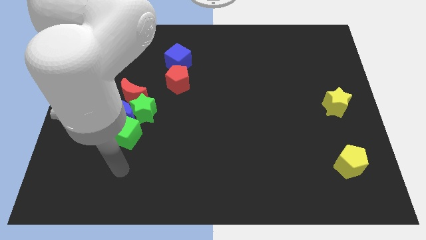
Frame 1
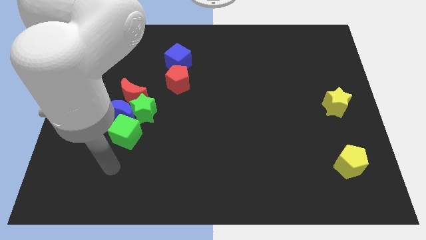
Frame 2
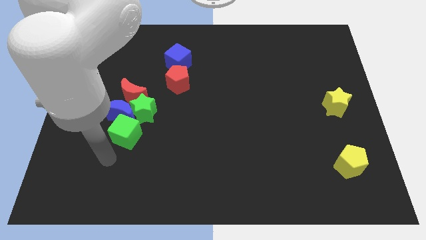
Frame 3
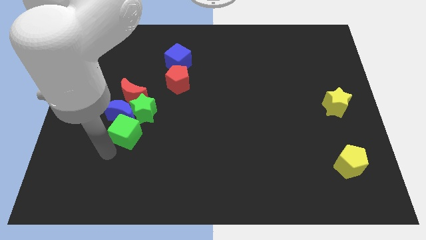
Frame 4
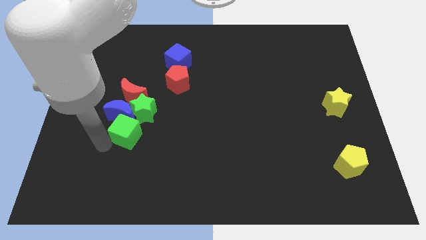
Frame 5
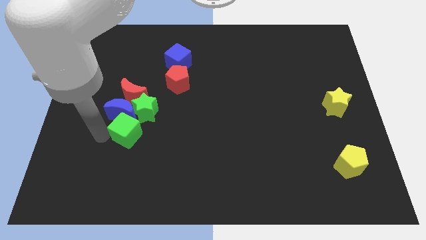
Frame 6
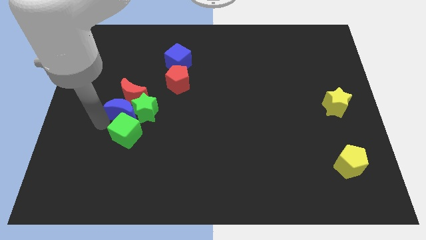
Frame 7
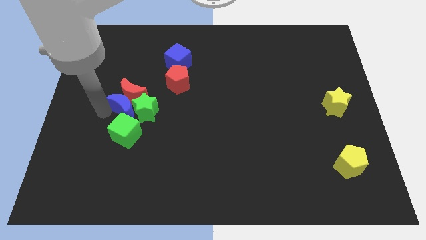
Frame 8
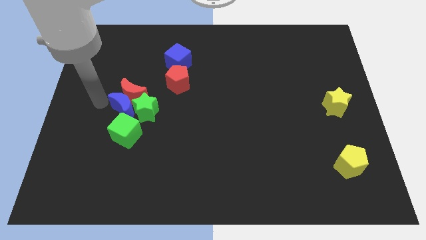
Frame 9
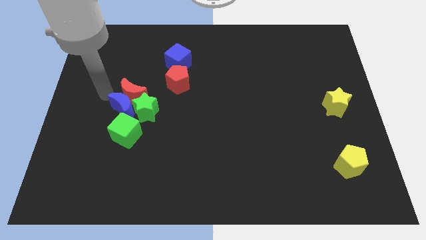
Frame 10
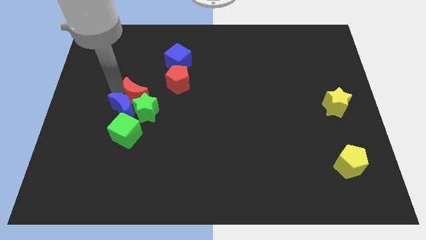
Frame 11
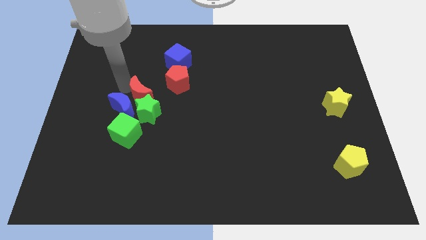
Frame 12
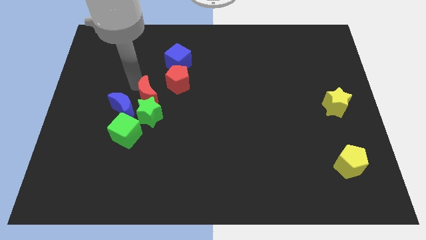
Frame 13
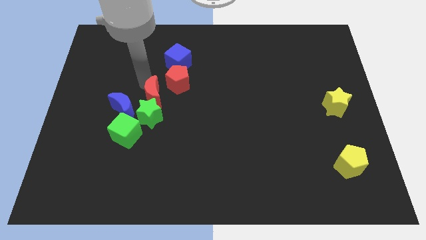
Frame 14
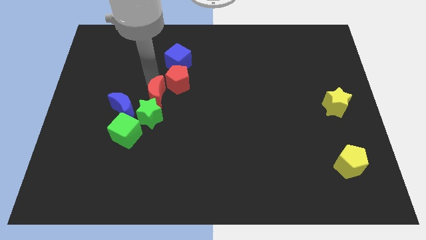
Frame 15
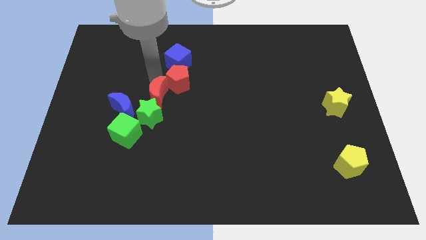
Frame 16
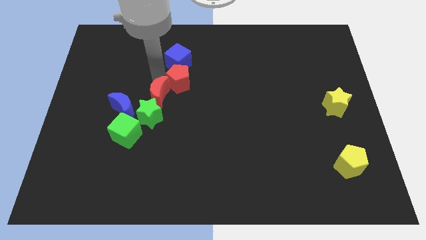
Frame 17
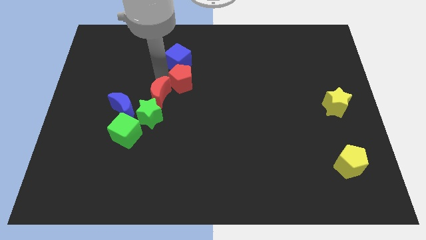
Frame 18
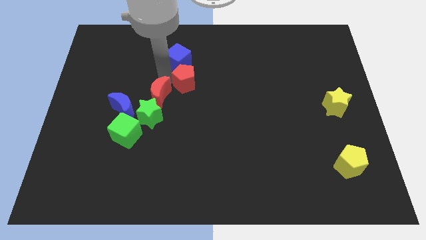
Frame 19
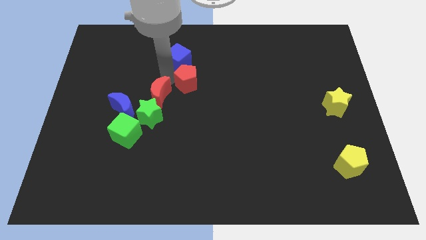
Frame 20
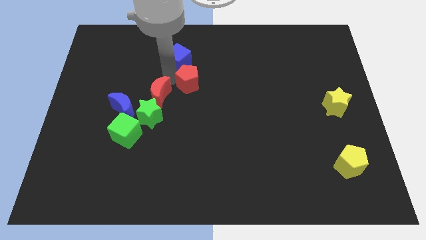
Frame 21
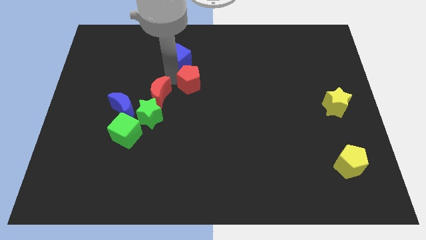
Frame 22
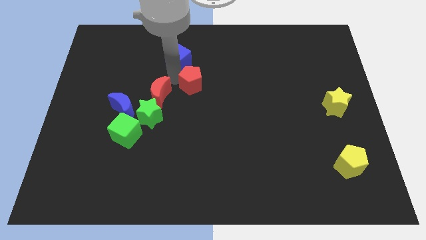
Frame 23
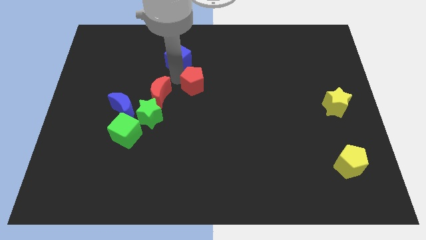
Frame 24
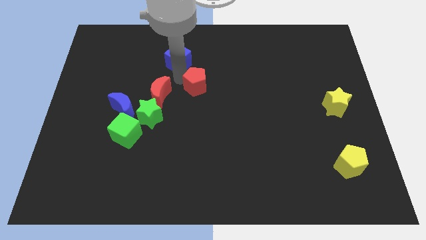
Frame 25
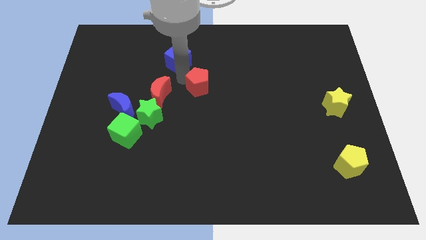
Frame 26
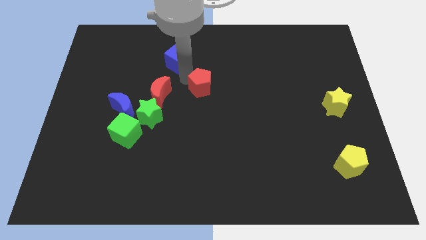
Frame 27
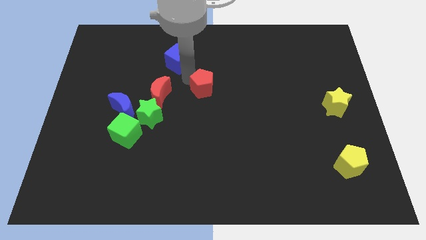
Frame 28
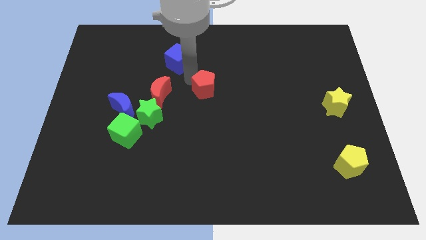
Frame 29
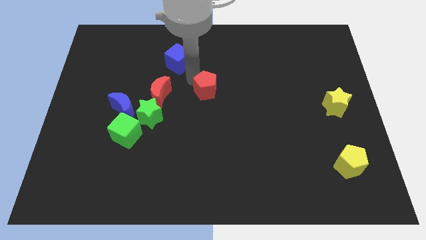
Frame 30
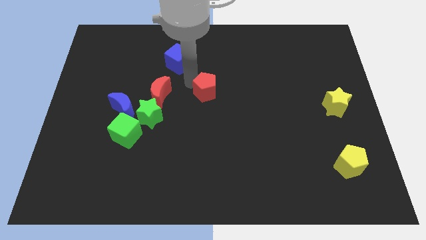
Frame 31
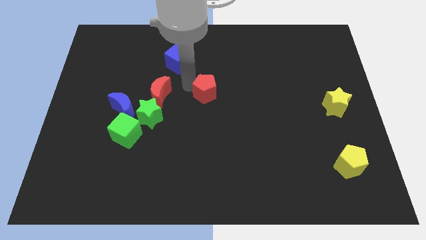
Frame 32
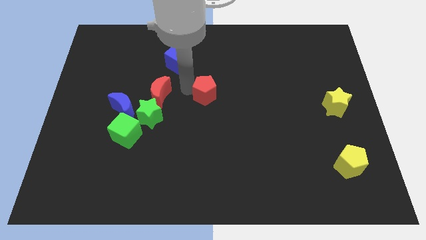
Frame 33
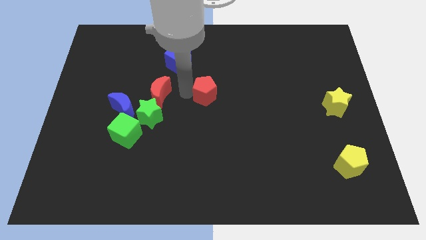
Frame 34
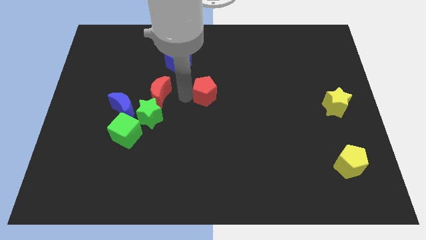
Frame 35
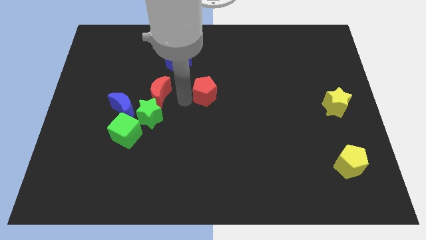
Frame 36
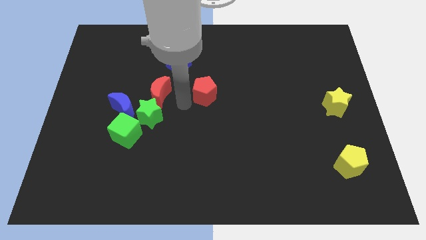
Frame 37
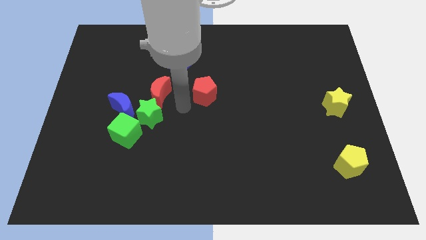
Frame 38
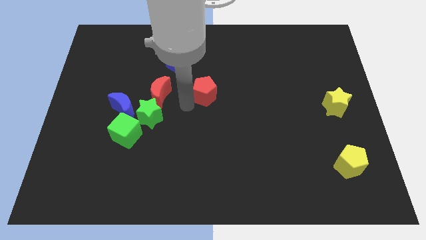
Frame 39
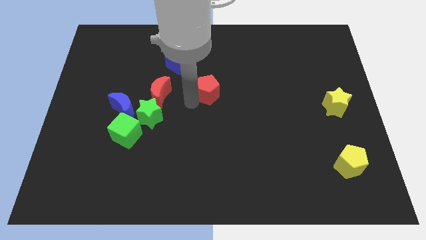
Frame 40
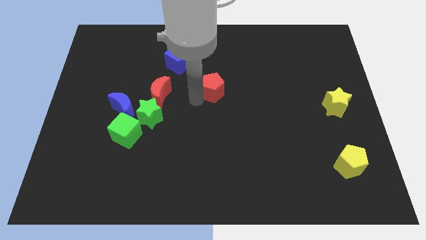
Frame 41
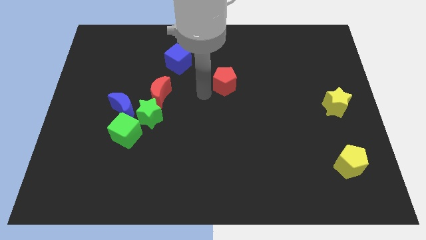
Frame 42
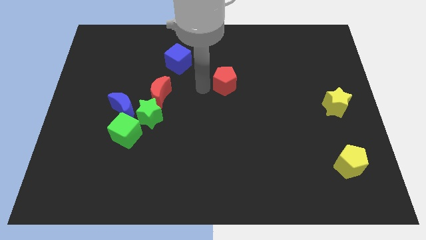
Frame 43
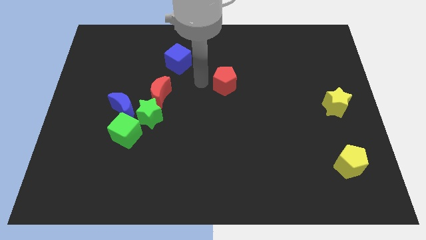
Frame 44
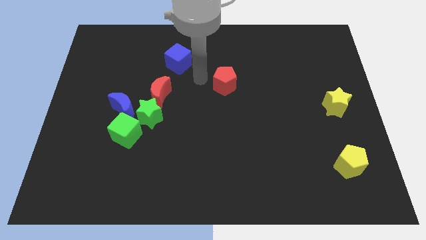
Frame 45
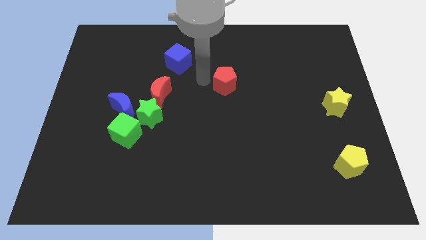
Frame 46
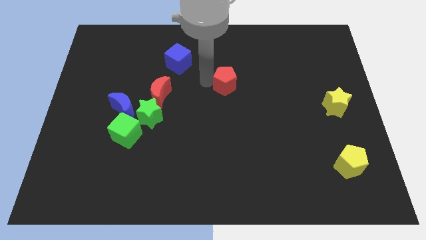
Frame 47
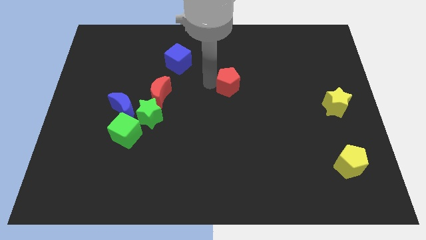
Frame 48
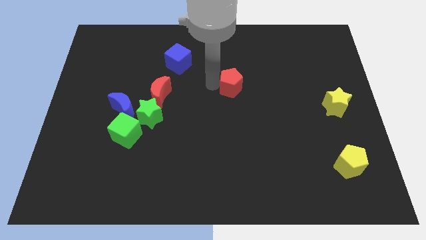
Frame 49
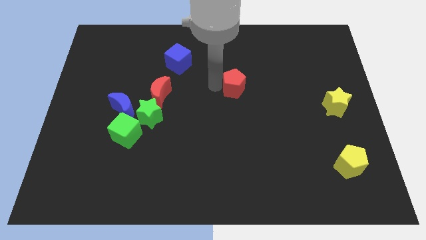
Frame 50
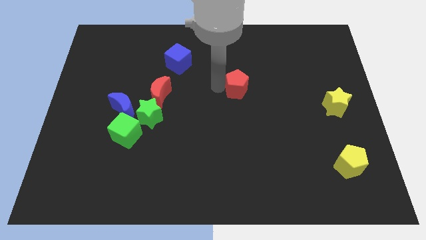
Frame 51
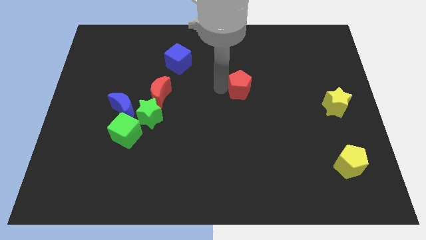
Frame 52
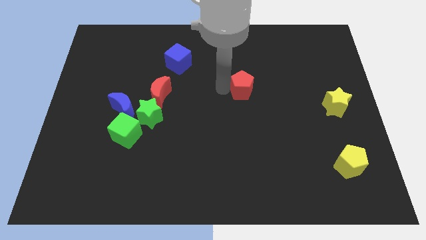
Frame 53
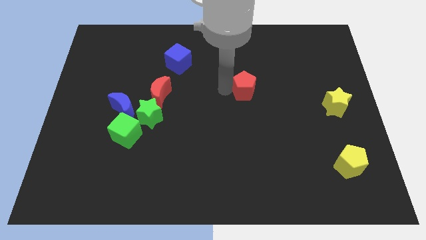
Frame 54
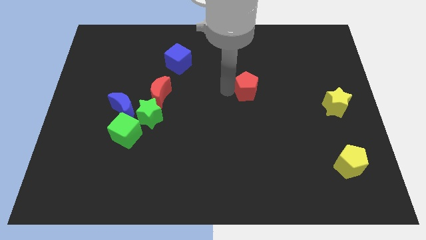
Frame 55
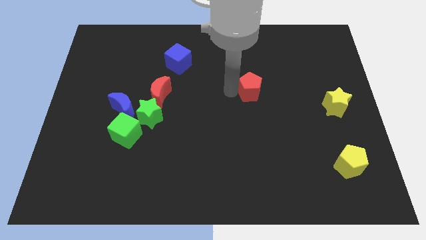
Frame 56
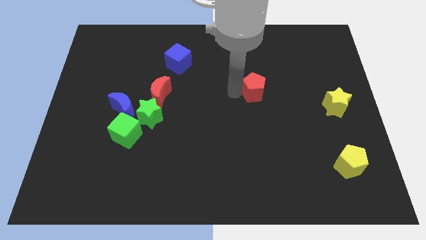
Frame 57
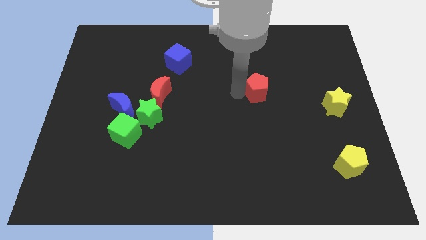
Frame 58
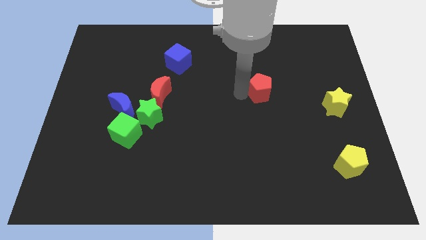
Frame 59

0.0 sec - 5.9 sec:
slide the red pentagon right

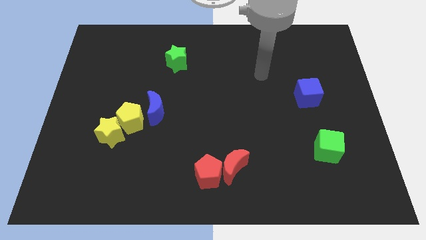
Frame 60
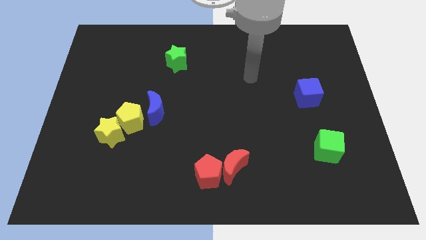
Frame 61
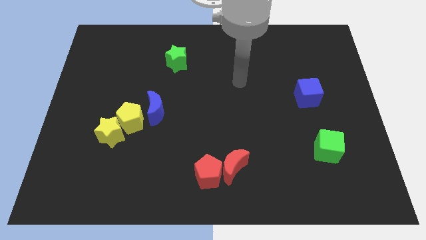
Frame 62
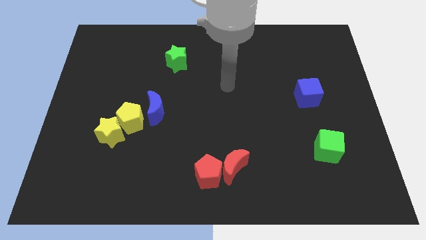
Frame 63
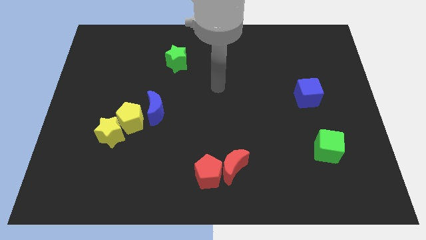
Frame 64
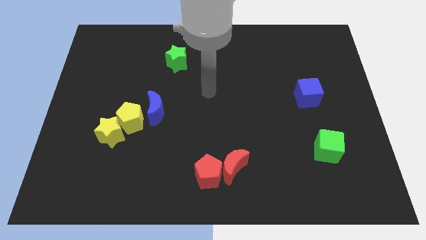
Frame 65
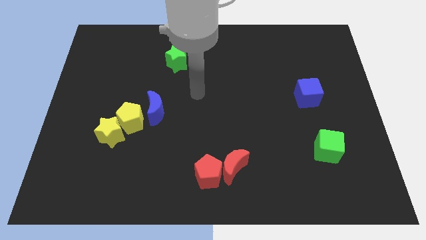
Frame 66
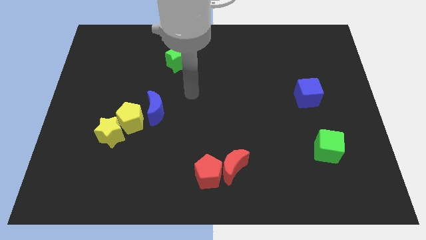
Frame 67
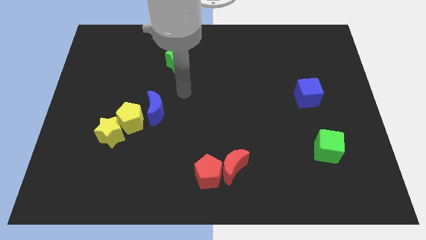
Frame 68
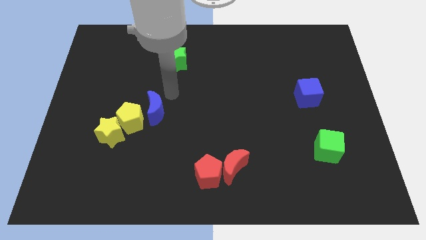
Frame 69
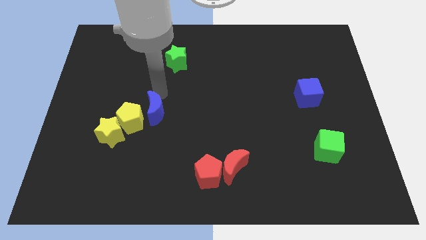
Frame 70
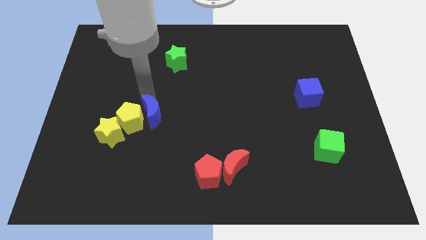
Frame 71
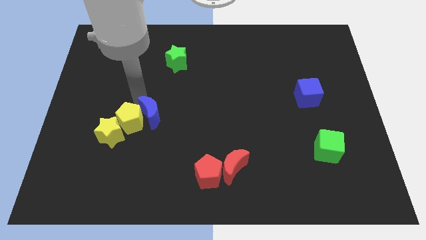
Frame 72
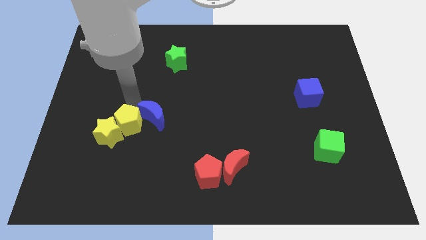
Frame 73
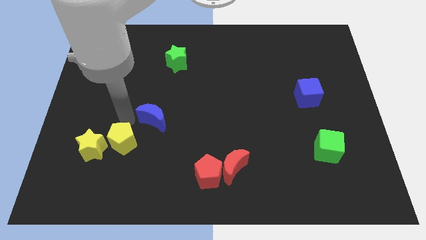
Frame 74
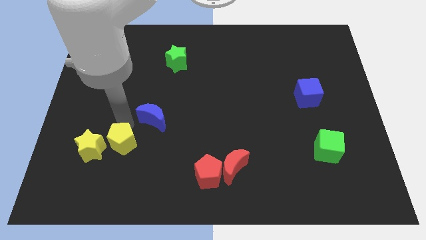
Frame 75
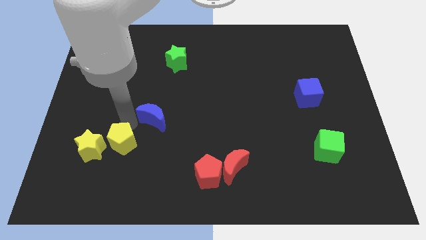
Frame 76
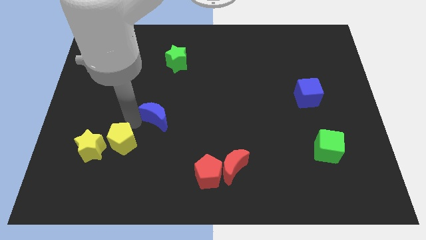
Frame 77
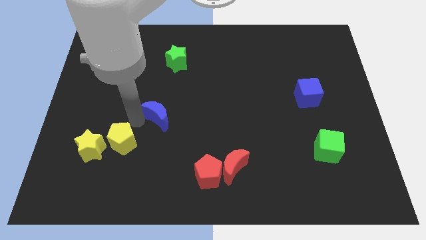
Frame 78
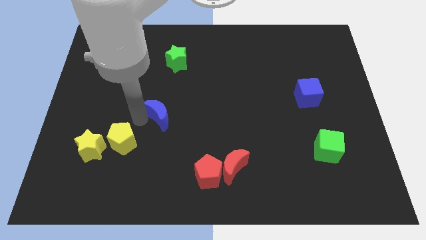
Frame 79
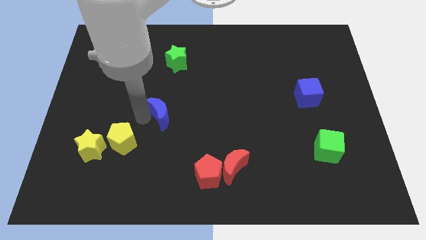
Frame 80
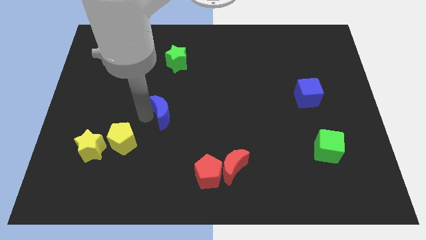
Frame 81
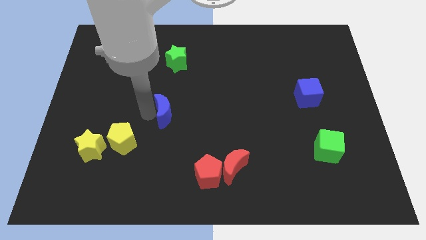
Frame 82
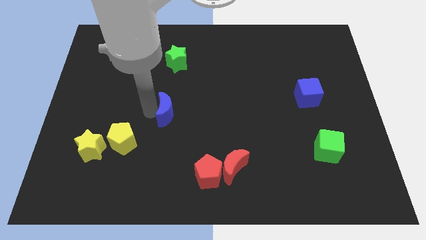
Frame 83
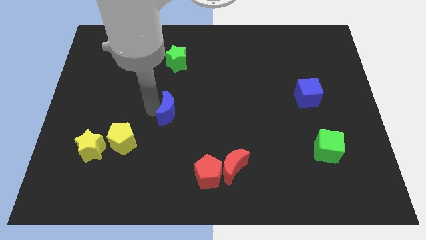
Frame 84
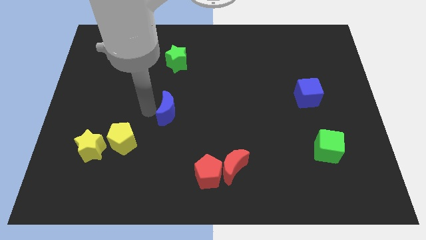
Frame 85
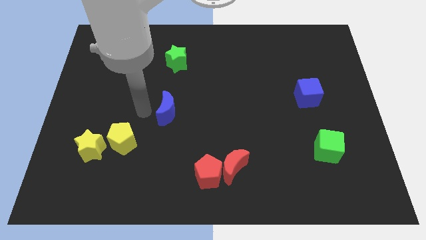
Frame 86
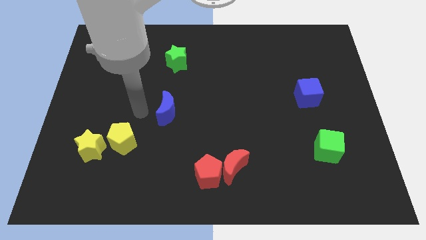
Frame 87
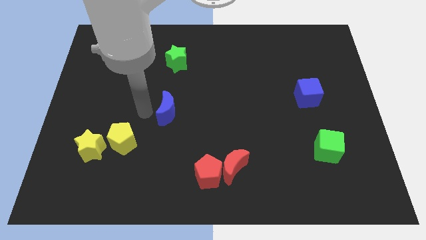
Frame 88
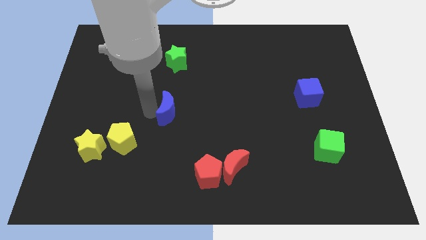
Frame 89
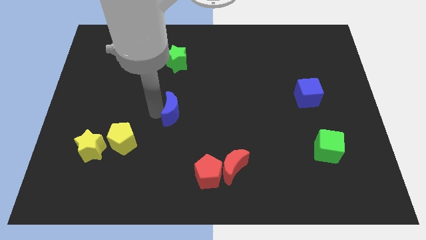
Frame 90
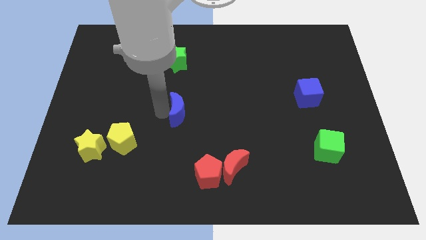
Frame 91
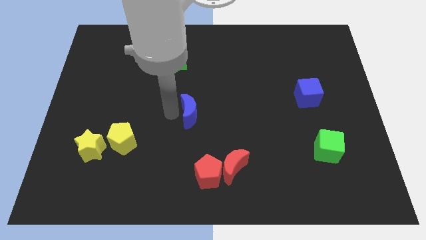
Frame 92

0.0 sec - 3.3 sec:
push the blue moon right a bit
